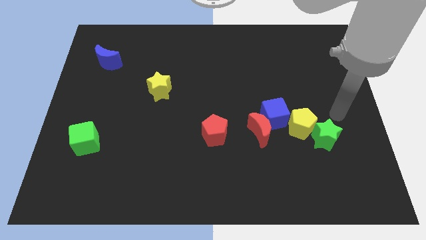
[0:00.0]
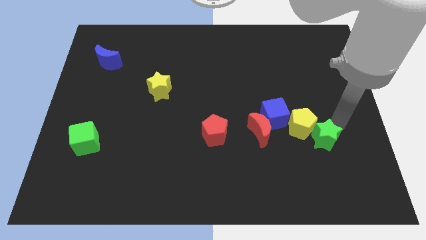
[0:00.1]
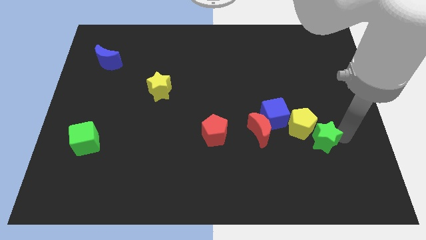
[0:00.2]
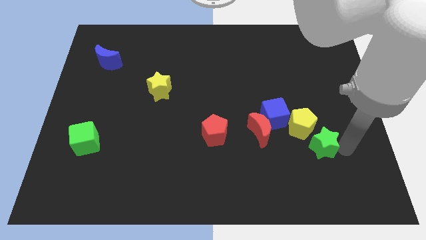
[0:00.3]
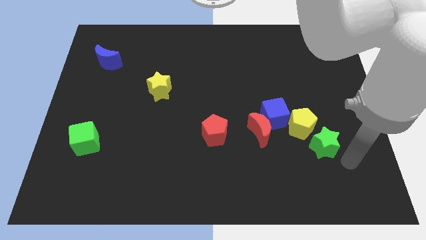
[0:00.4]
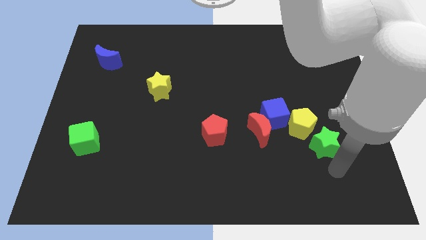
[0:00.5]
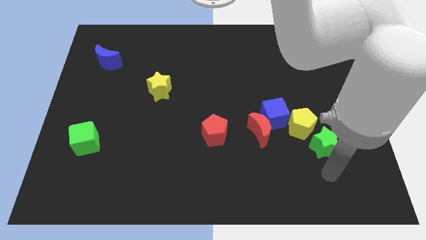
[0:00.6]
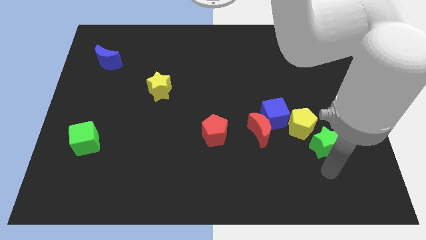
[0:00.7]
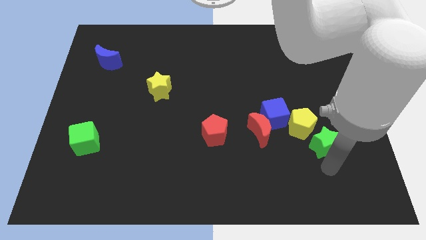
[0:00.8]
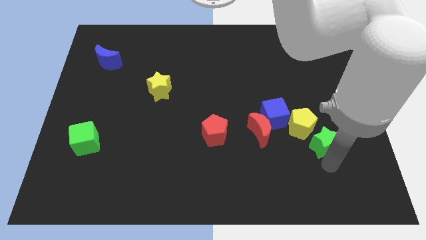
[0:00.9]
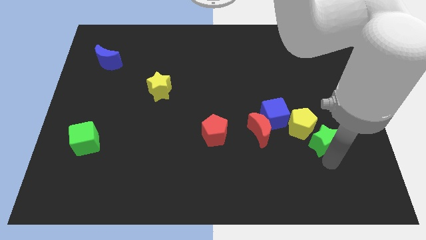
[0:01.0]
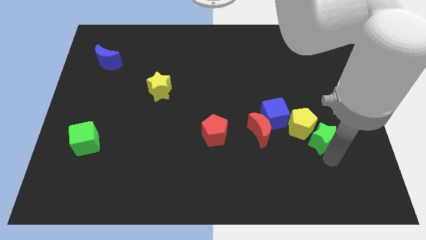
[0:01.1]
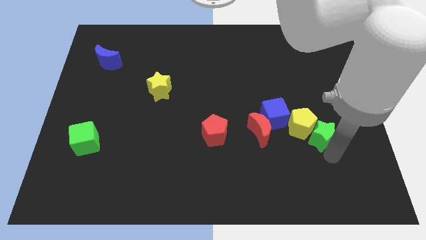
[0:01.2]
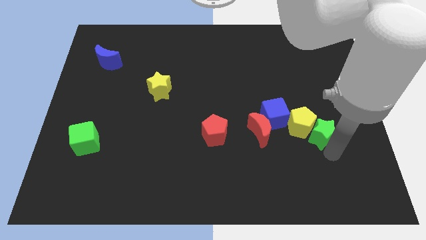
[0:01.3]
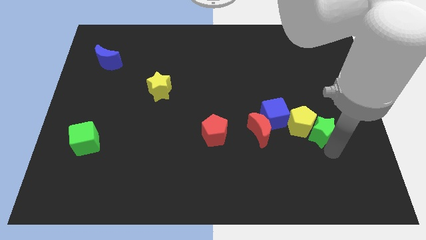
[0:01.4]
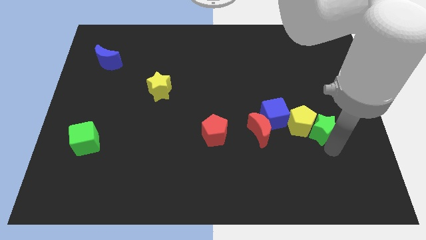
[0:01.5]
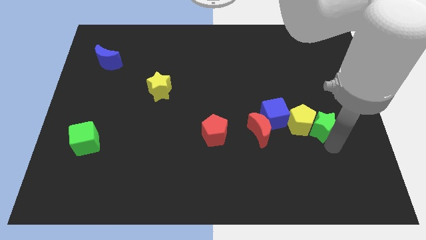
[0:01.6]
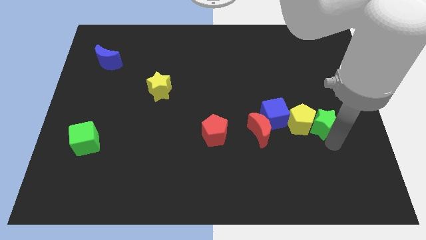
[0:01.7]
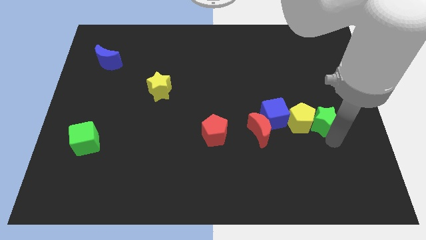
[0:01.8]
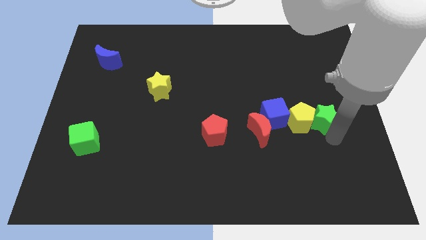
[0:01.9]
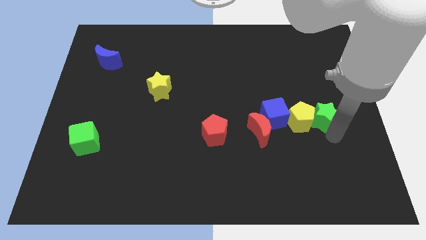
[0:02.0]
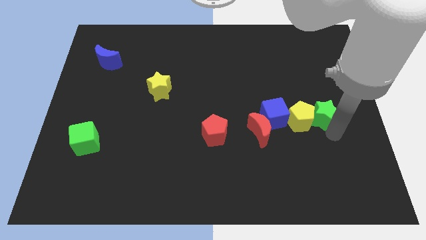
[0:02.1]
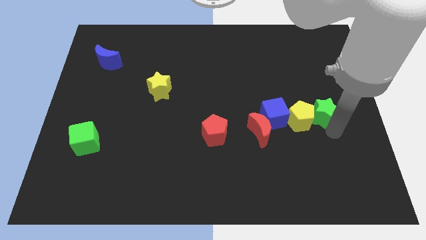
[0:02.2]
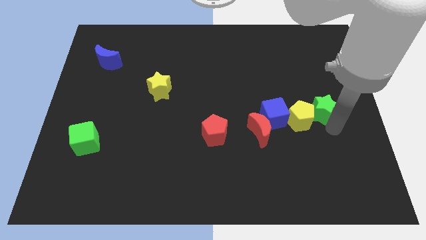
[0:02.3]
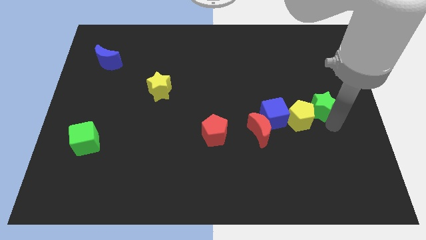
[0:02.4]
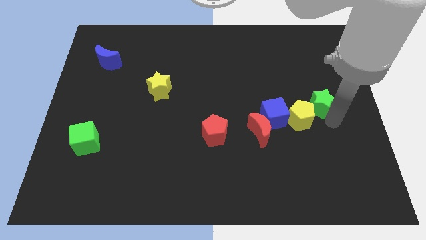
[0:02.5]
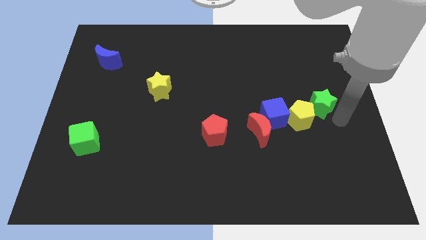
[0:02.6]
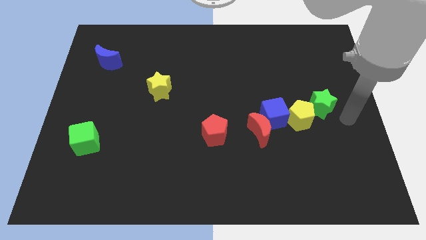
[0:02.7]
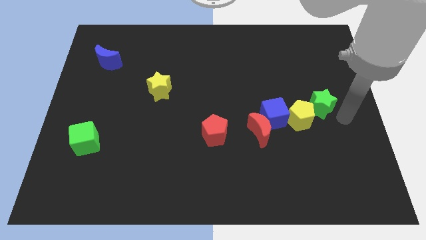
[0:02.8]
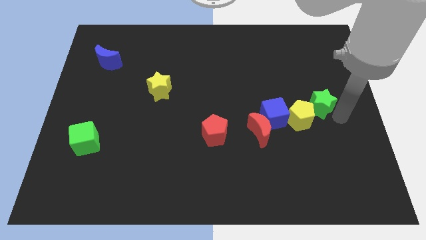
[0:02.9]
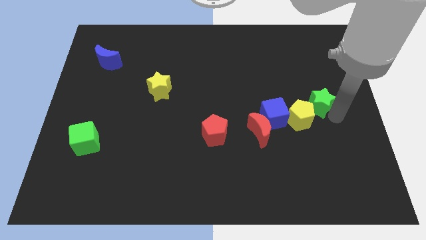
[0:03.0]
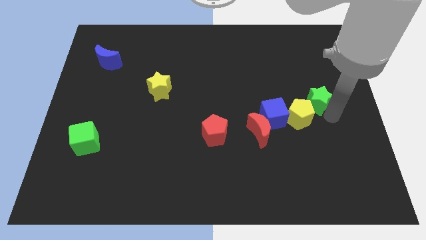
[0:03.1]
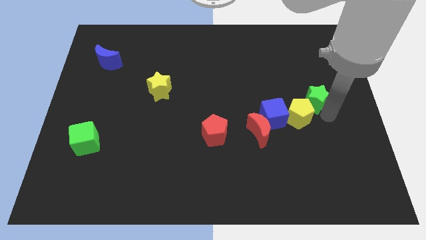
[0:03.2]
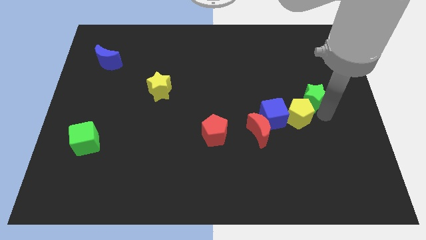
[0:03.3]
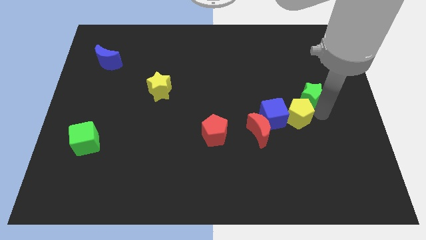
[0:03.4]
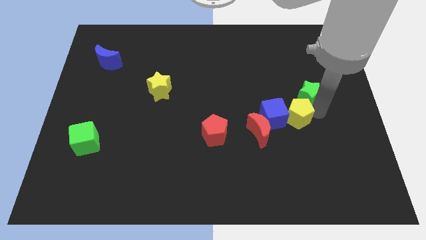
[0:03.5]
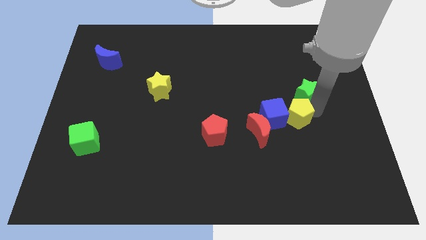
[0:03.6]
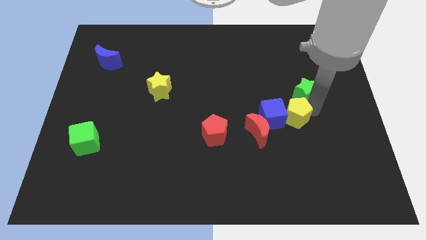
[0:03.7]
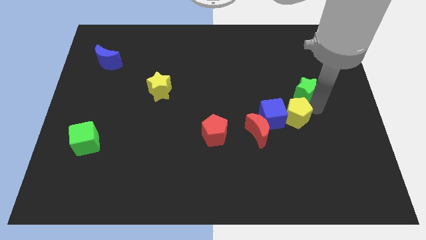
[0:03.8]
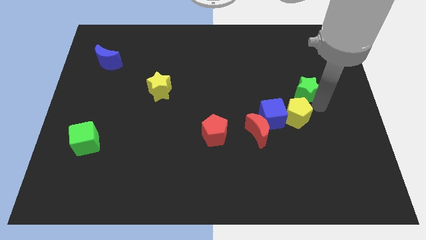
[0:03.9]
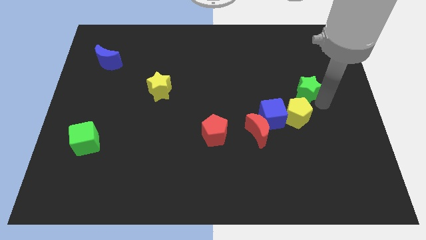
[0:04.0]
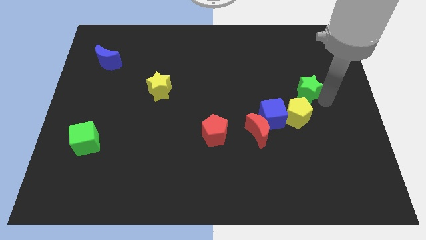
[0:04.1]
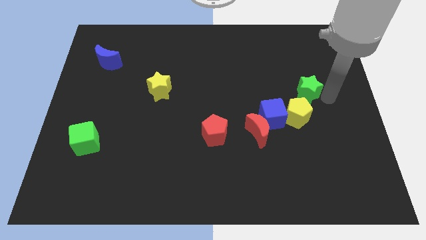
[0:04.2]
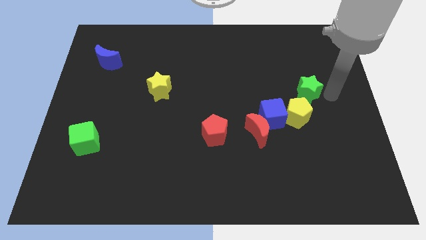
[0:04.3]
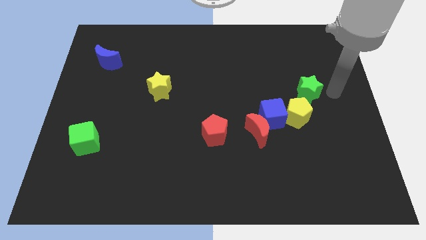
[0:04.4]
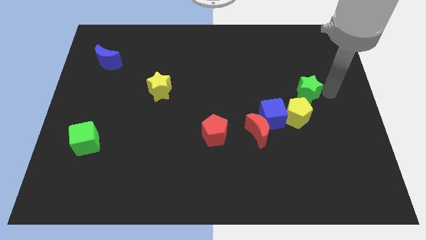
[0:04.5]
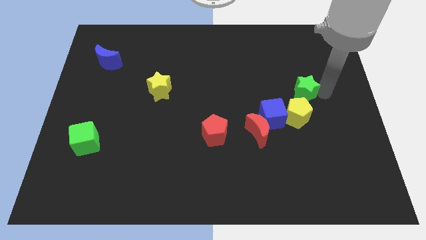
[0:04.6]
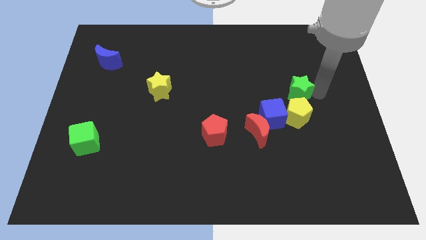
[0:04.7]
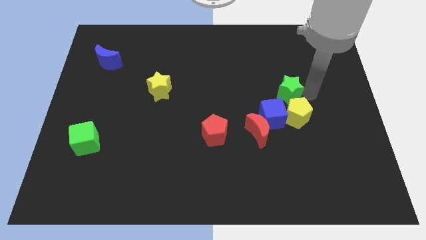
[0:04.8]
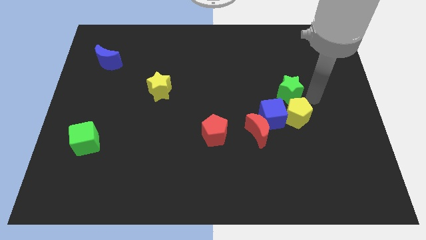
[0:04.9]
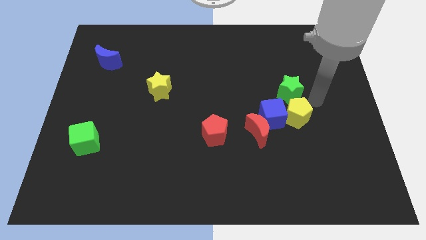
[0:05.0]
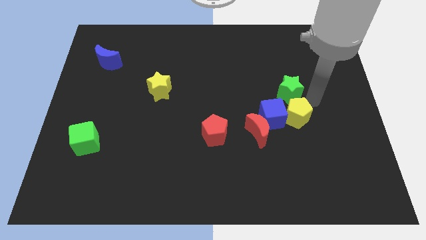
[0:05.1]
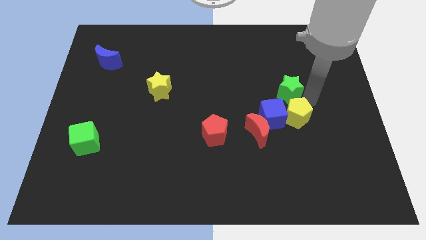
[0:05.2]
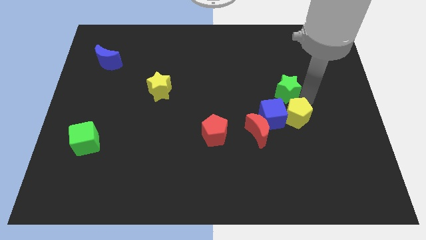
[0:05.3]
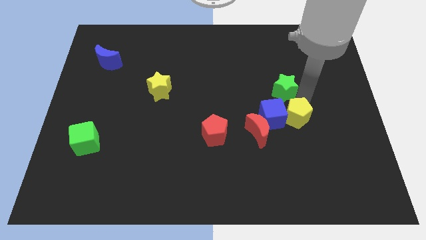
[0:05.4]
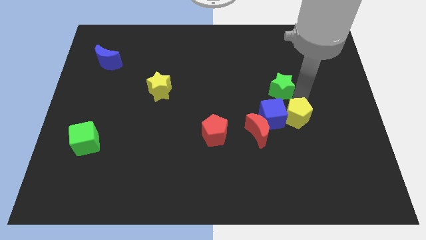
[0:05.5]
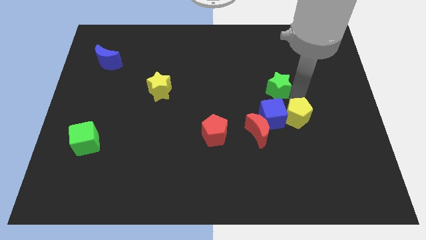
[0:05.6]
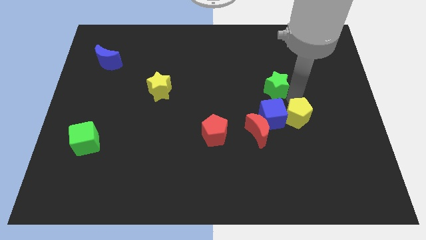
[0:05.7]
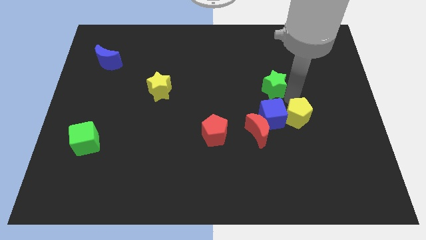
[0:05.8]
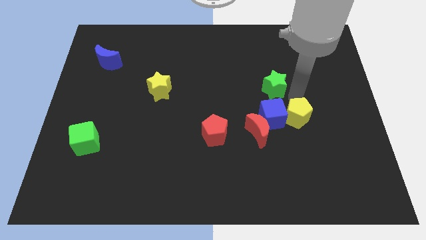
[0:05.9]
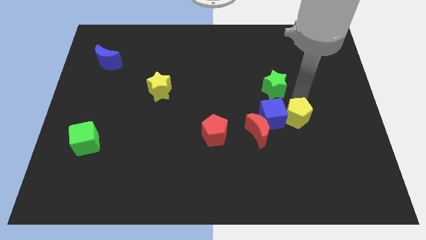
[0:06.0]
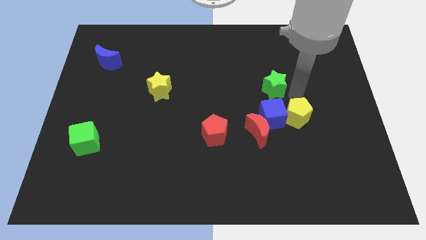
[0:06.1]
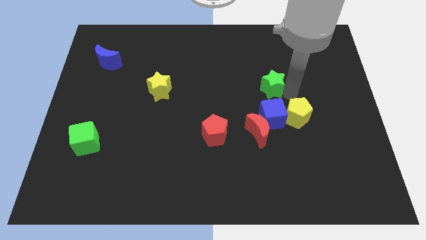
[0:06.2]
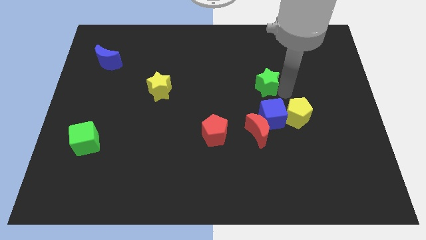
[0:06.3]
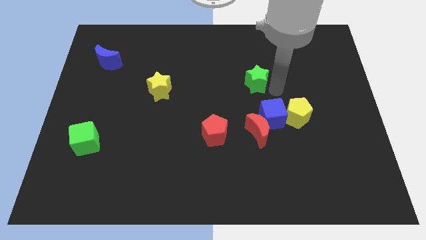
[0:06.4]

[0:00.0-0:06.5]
move the green star diagonally up and to the left

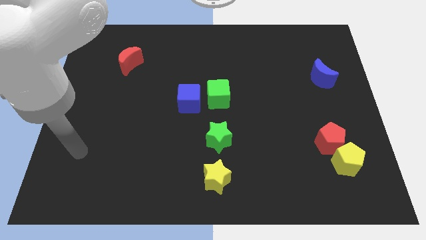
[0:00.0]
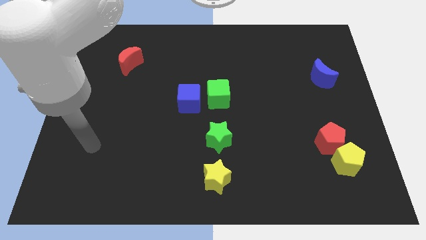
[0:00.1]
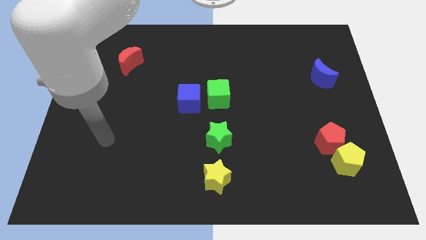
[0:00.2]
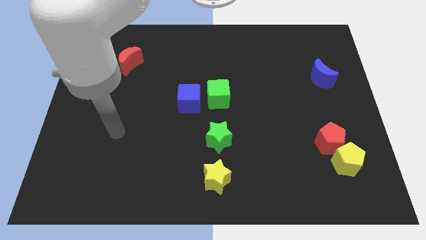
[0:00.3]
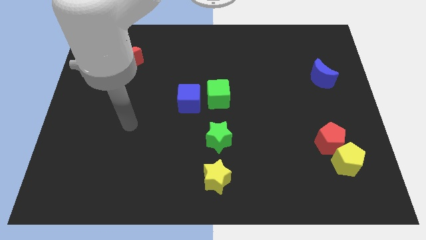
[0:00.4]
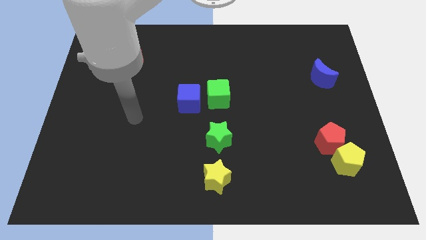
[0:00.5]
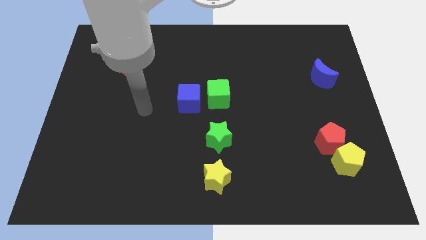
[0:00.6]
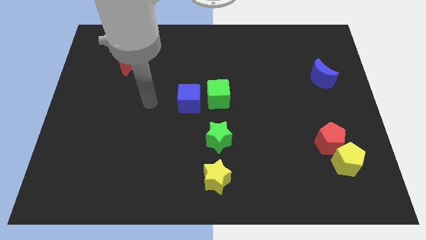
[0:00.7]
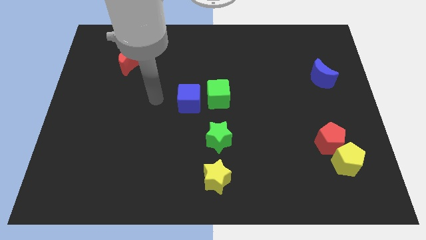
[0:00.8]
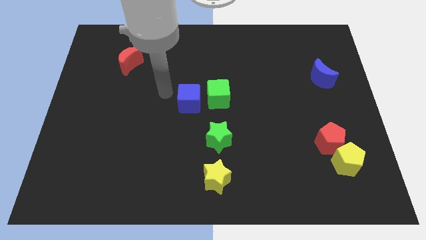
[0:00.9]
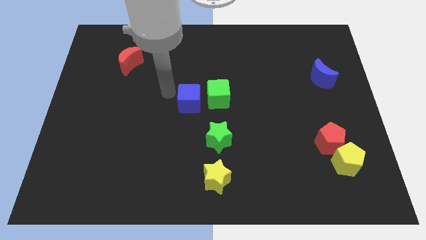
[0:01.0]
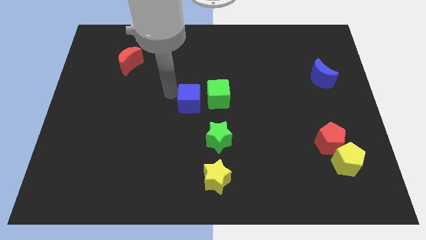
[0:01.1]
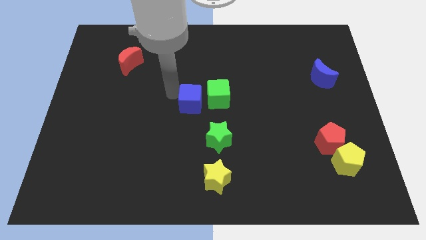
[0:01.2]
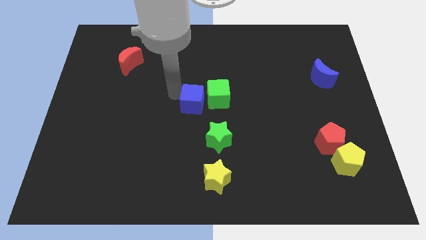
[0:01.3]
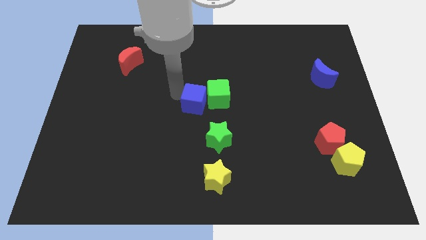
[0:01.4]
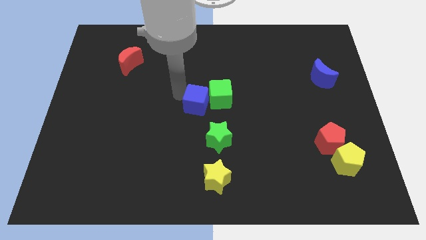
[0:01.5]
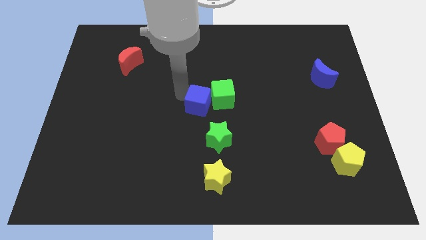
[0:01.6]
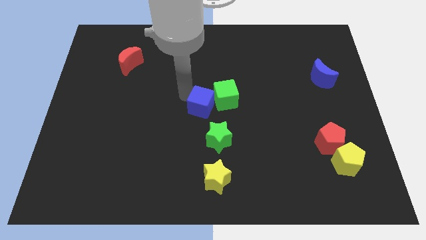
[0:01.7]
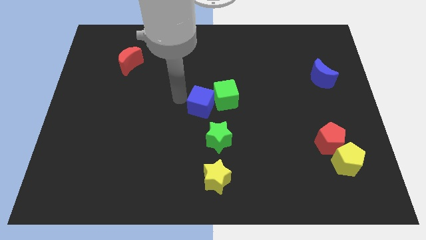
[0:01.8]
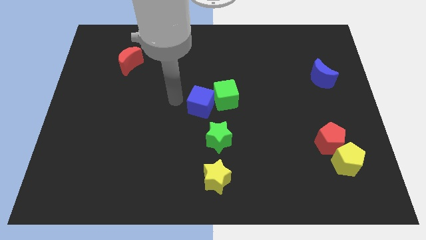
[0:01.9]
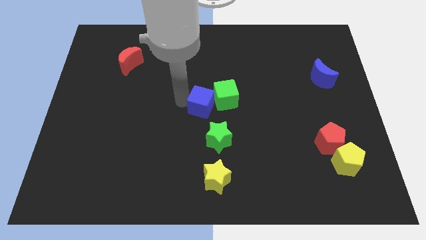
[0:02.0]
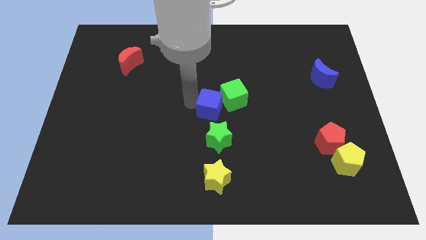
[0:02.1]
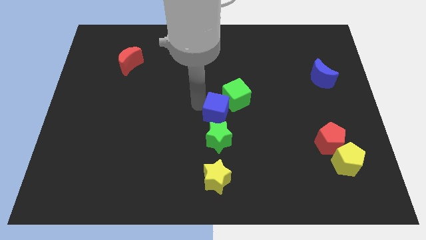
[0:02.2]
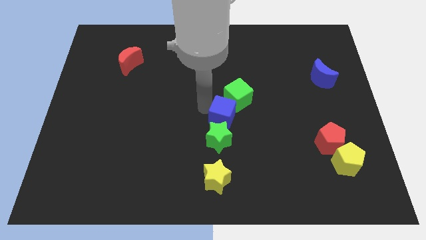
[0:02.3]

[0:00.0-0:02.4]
slide the blue cube right a bit
